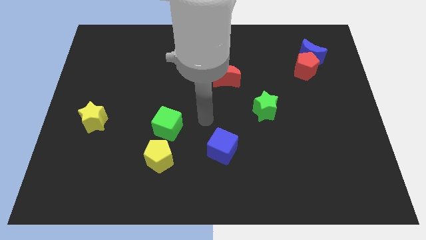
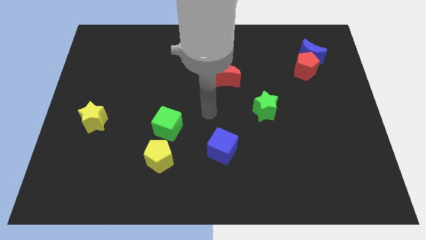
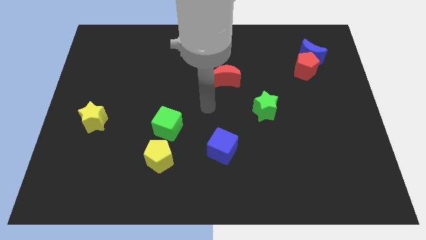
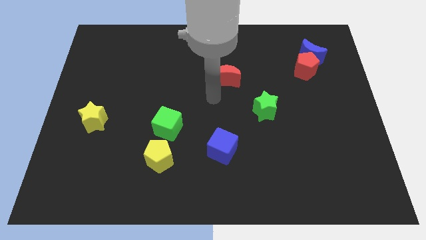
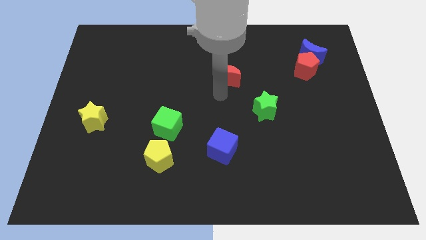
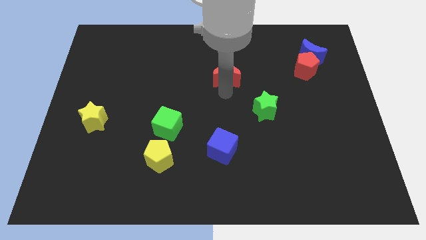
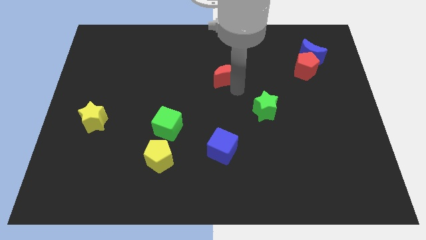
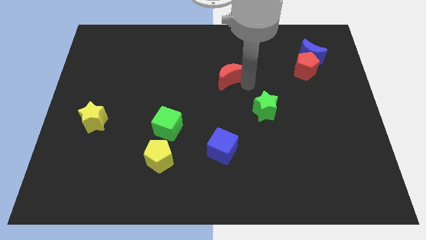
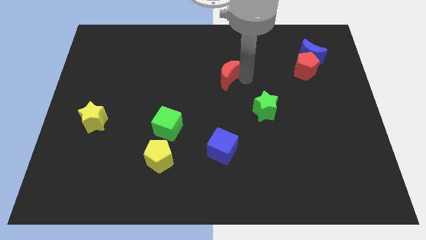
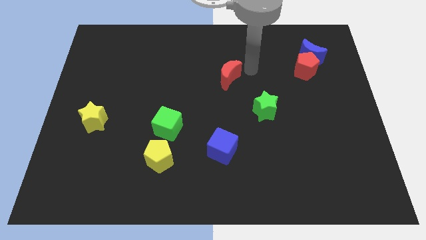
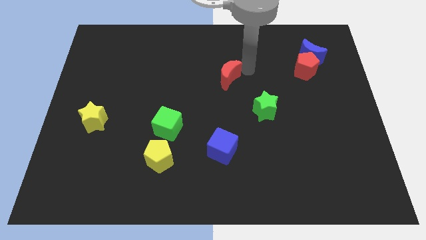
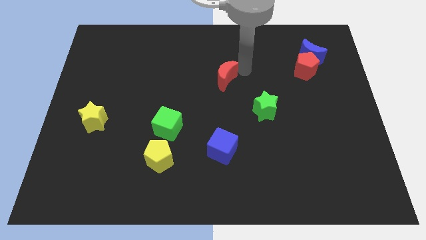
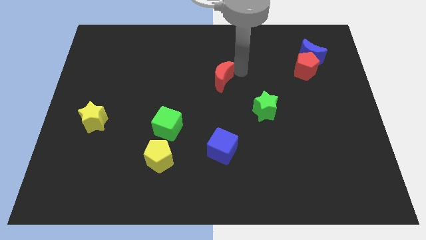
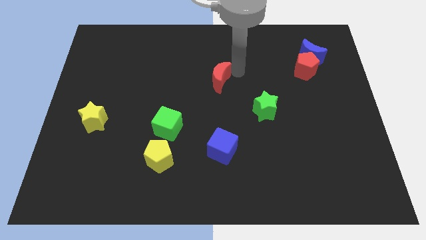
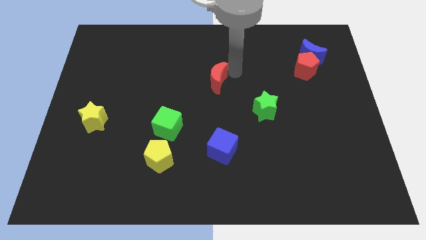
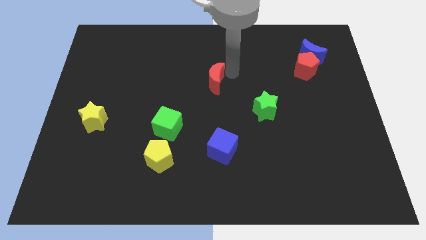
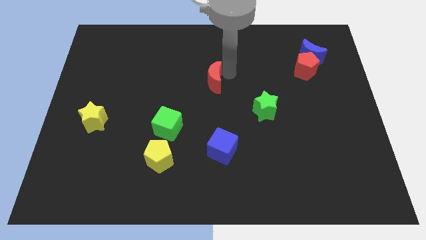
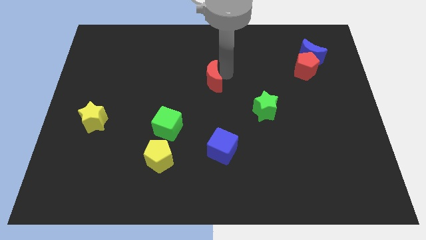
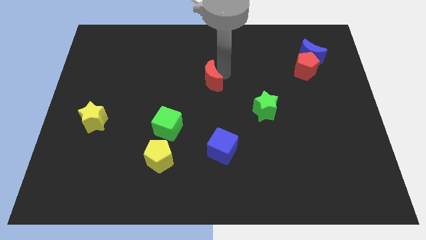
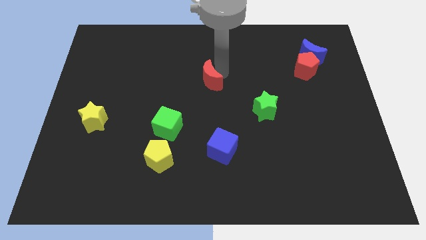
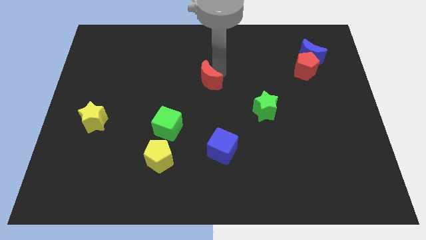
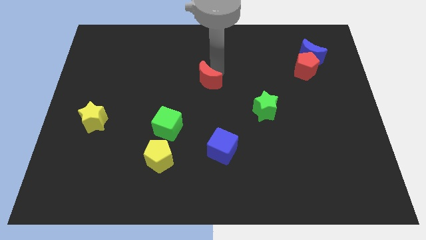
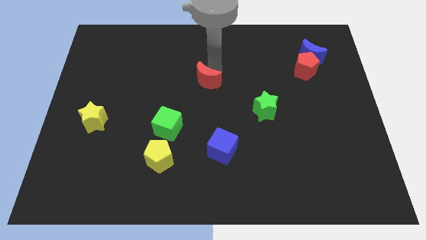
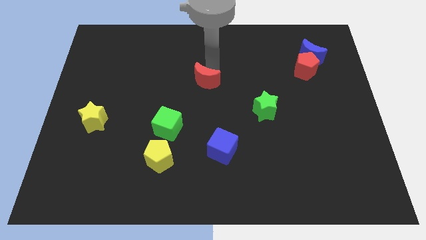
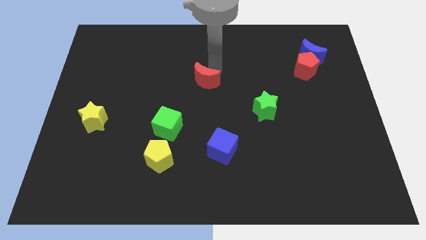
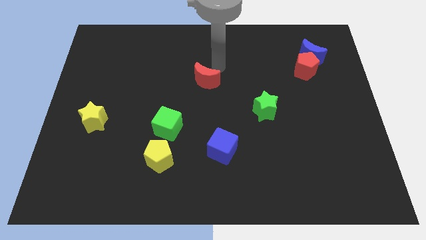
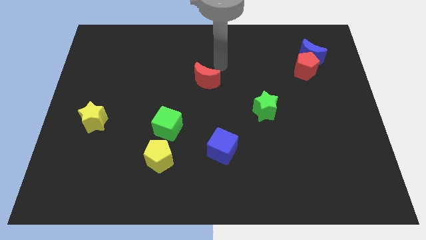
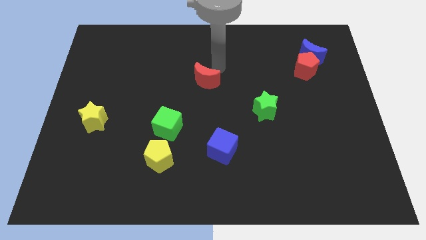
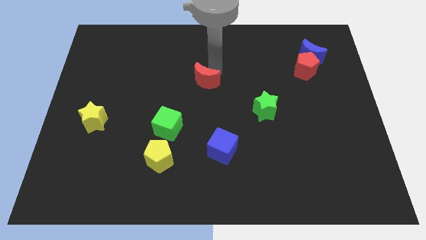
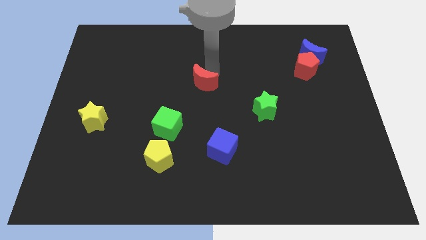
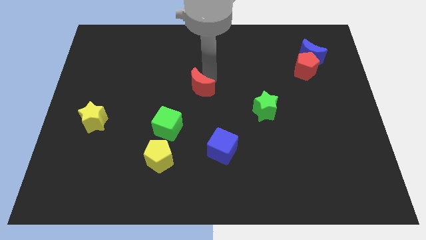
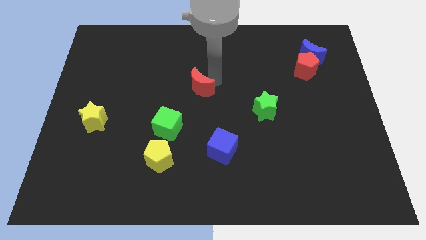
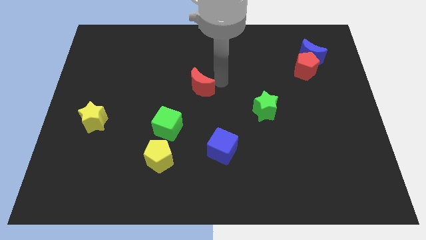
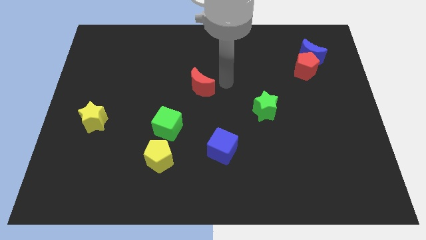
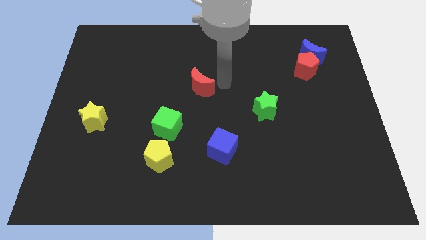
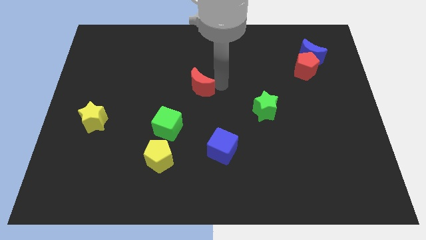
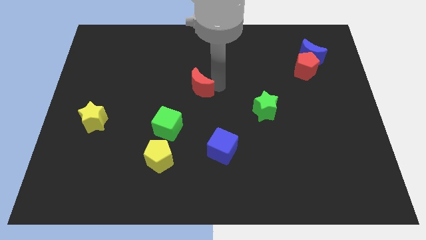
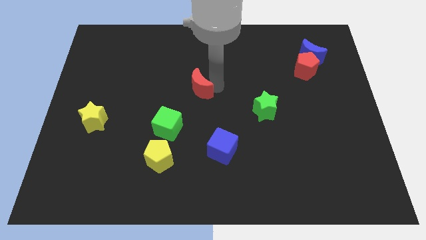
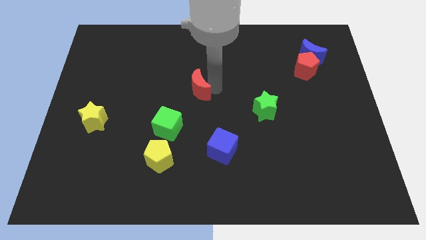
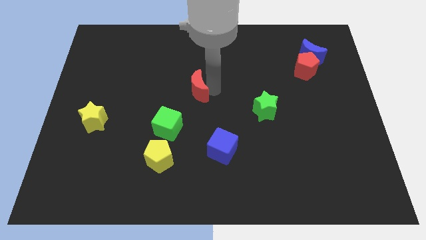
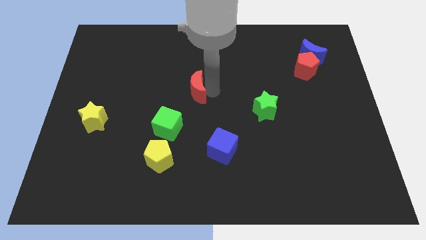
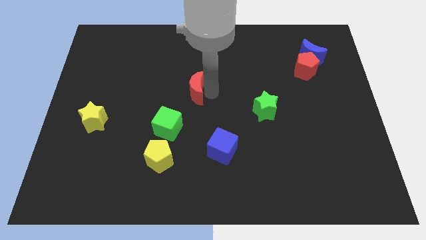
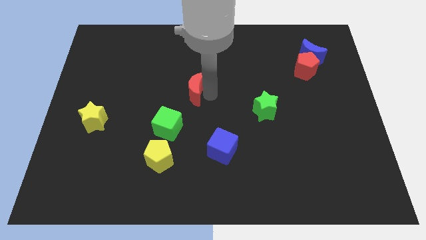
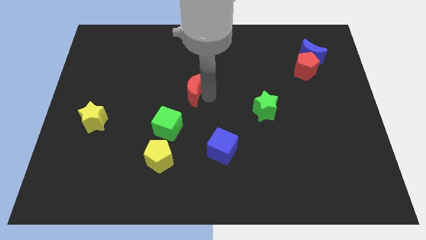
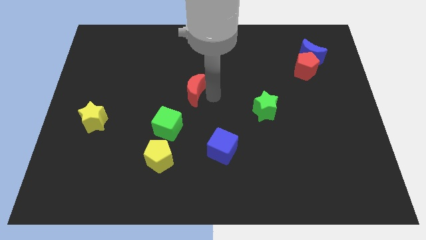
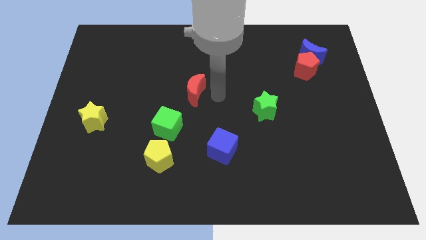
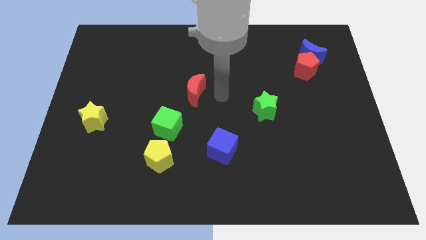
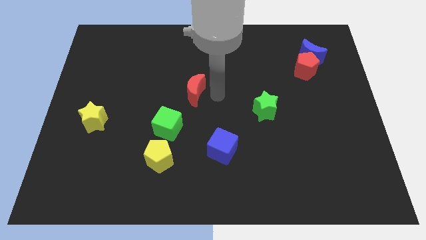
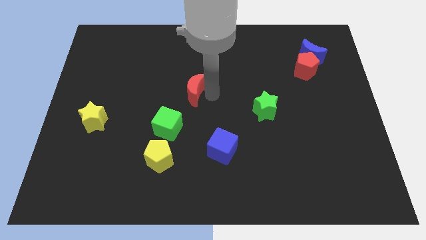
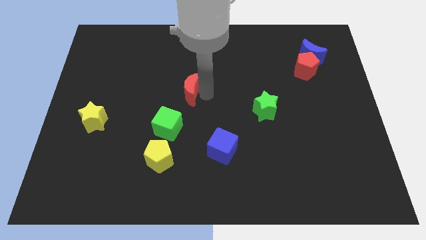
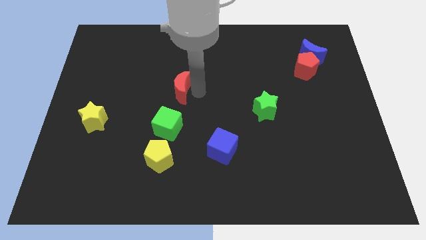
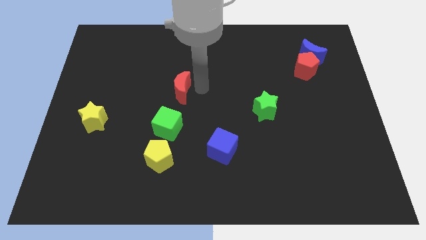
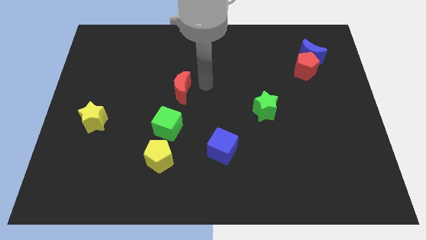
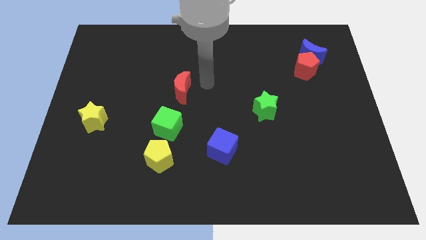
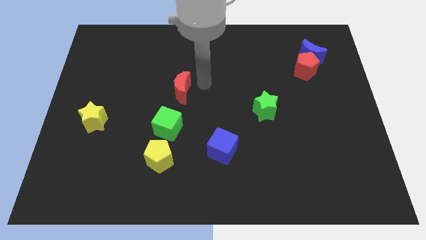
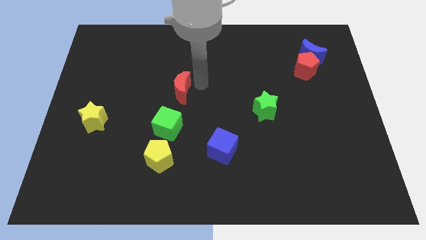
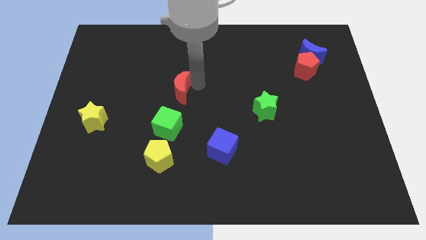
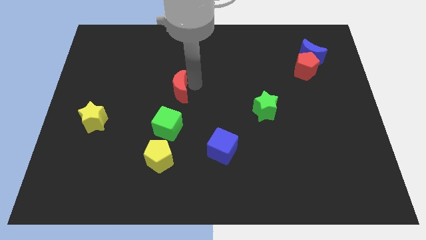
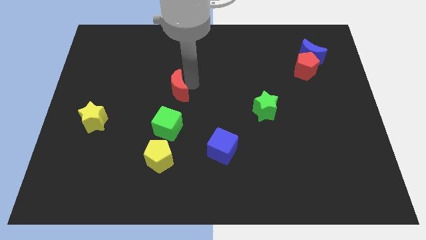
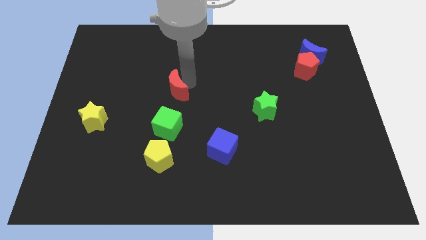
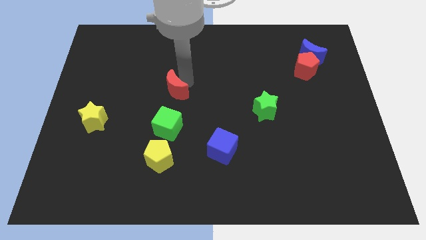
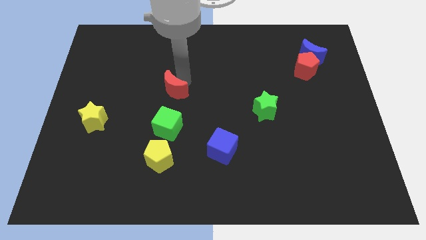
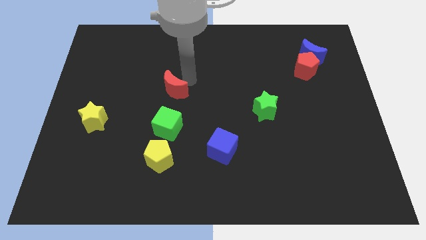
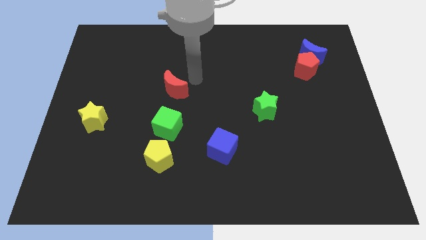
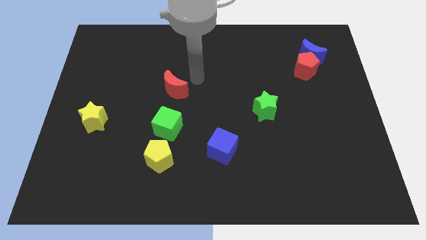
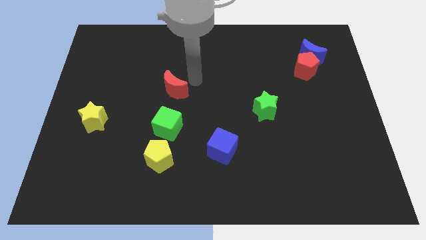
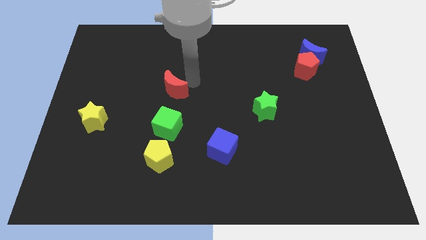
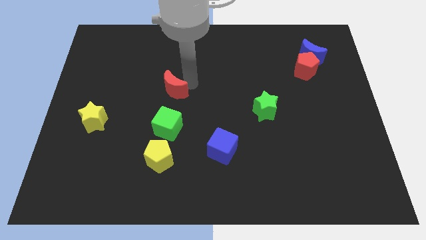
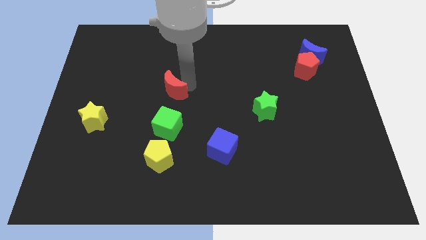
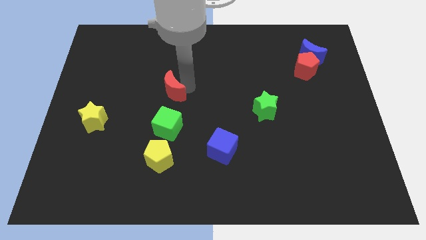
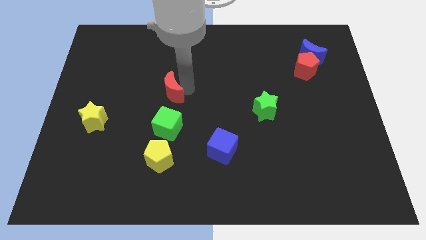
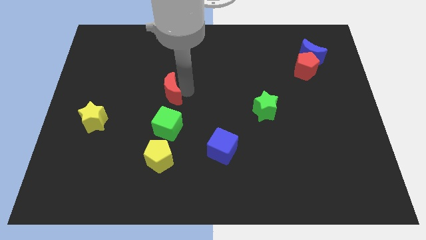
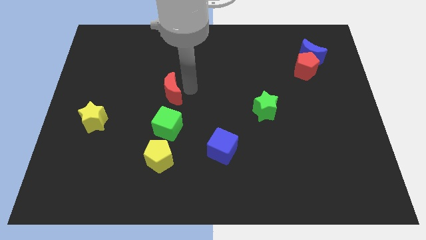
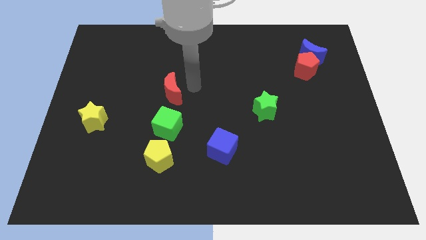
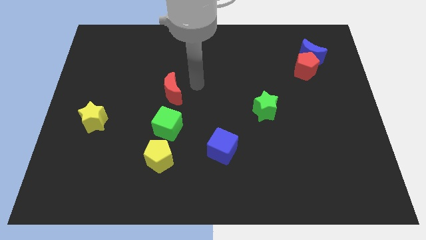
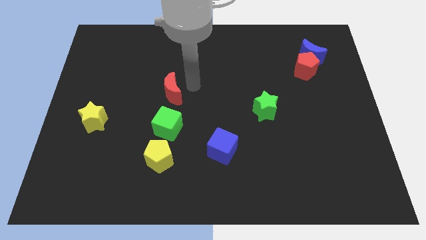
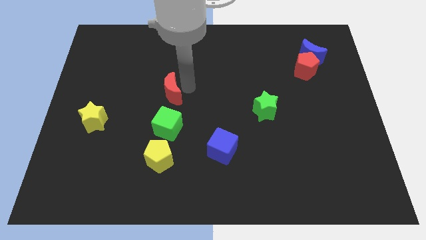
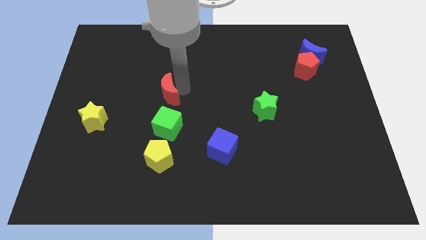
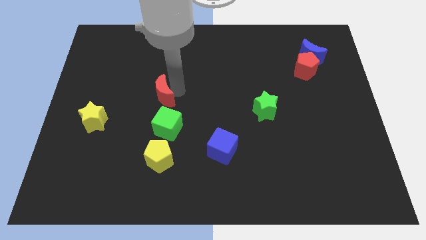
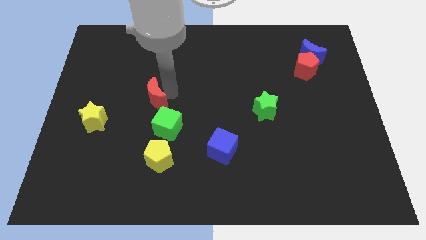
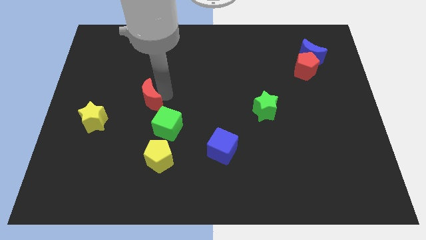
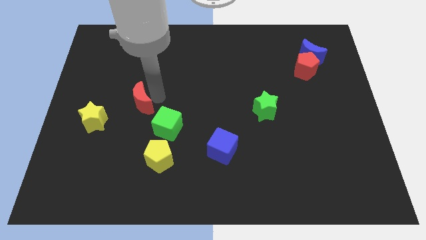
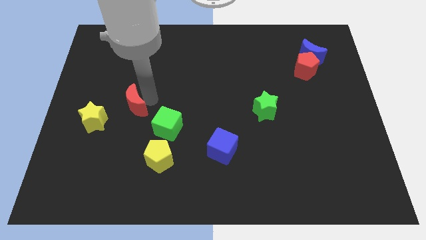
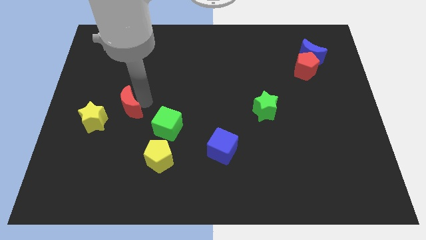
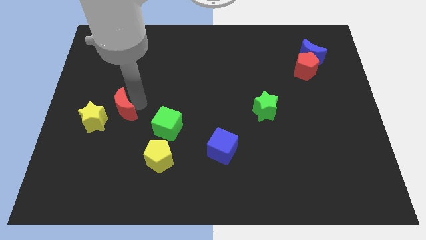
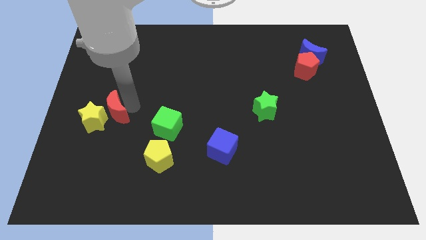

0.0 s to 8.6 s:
push the red moon next to the yellow star
